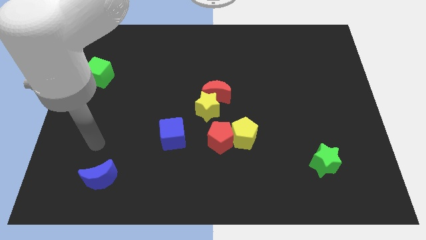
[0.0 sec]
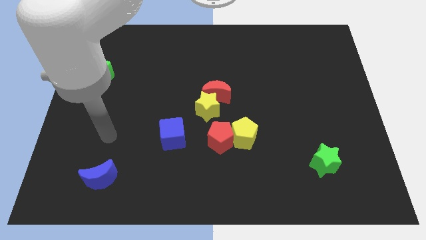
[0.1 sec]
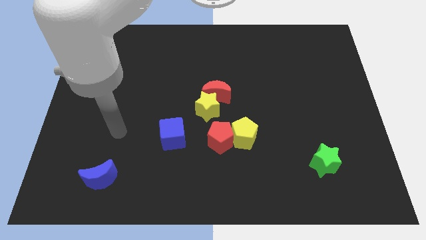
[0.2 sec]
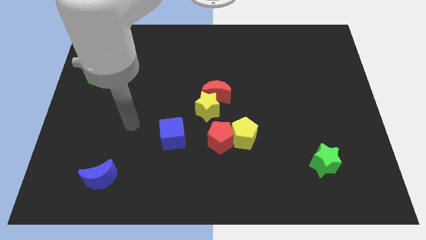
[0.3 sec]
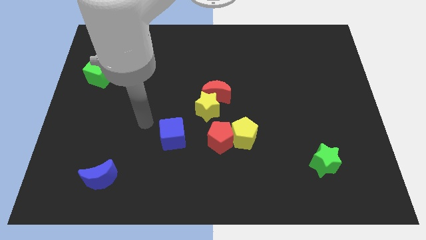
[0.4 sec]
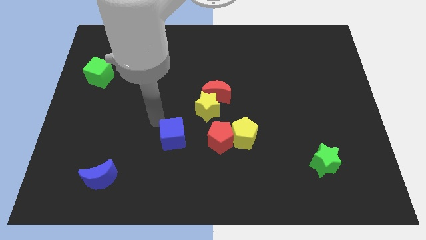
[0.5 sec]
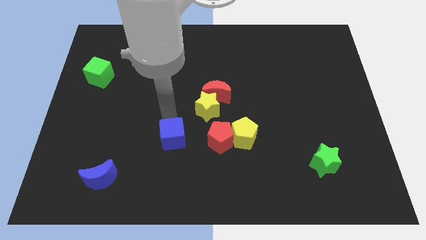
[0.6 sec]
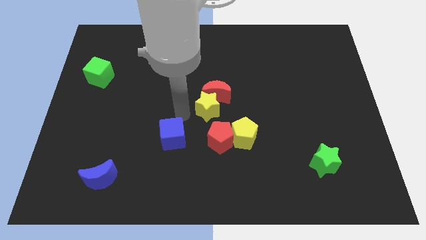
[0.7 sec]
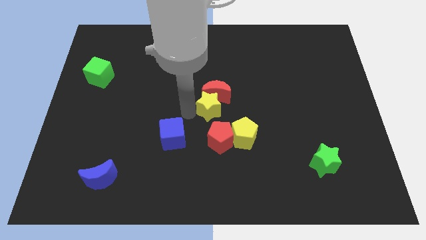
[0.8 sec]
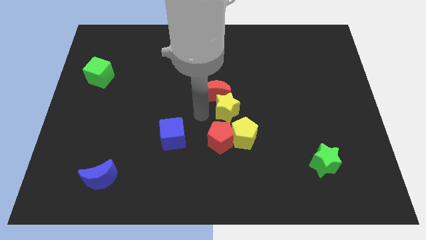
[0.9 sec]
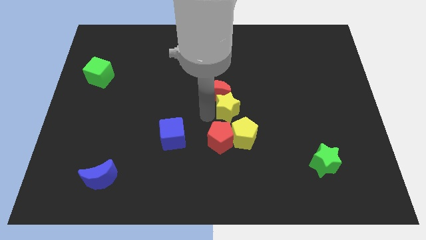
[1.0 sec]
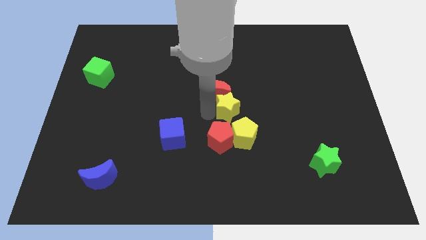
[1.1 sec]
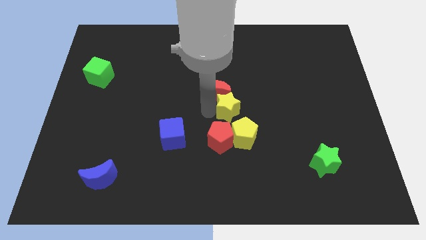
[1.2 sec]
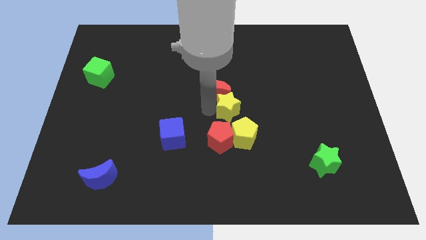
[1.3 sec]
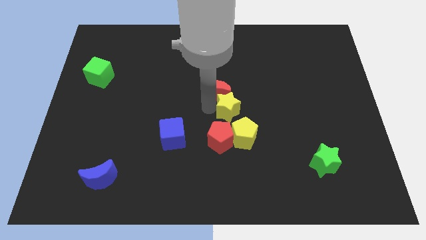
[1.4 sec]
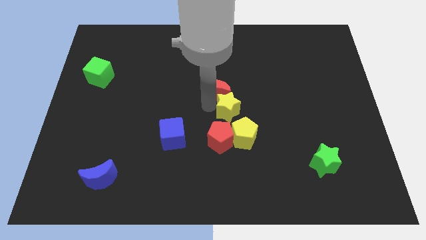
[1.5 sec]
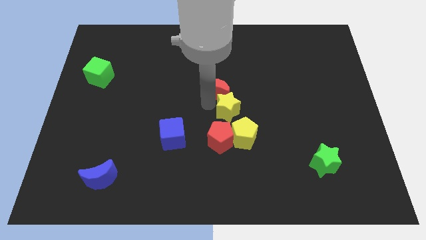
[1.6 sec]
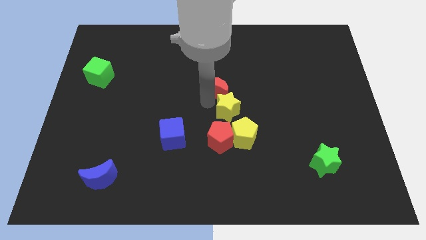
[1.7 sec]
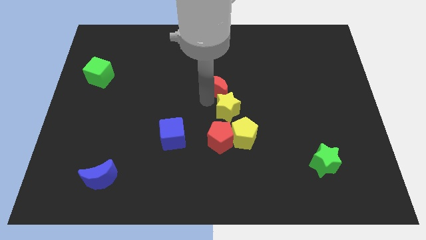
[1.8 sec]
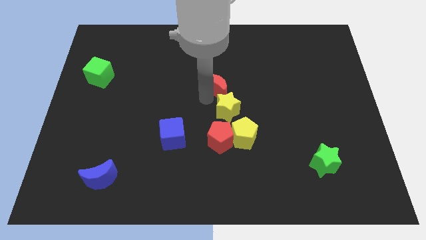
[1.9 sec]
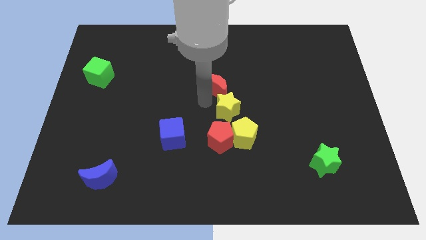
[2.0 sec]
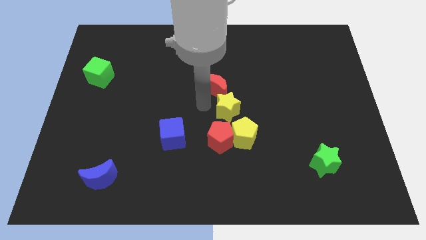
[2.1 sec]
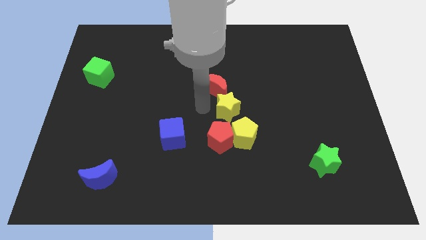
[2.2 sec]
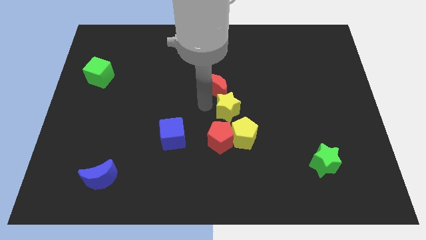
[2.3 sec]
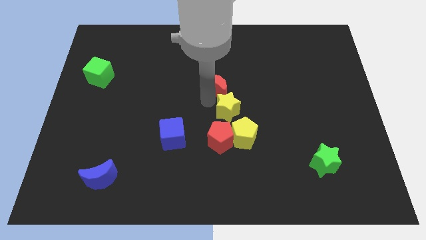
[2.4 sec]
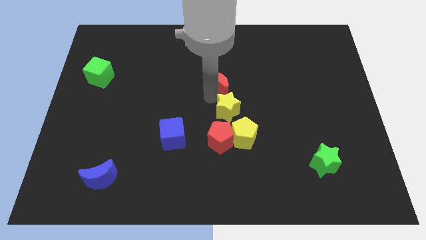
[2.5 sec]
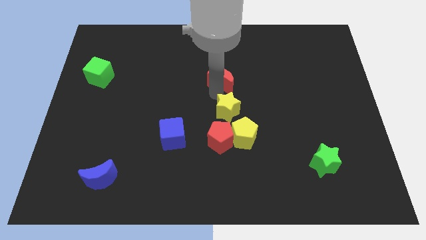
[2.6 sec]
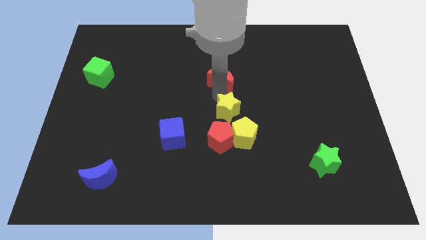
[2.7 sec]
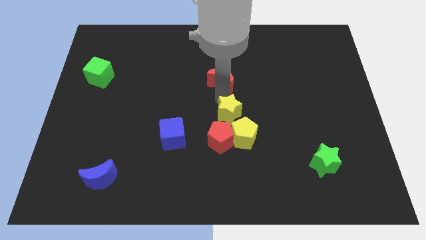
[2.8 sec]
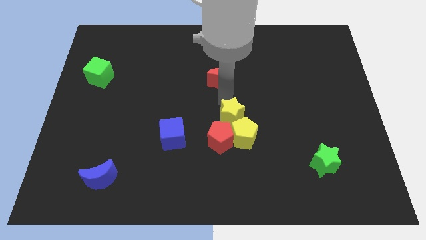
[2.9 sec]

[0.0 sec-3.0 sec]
move the red moon away from the yellow star

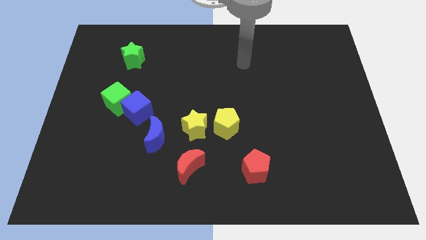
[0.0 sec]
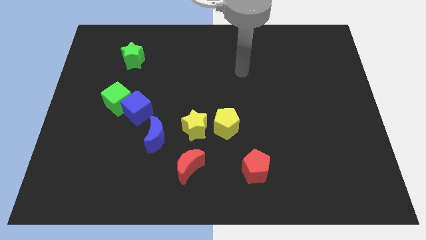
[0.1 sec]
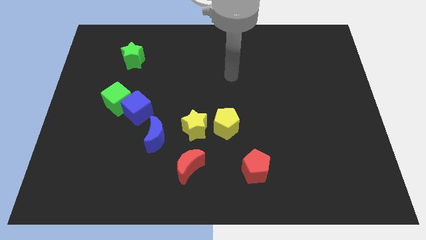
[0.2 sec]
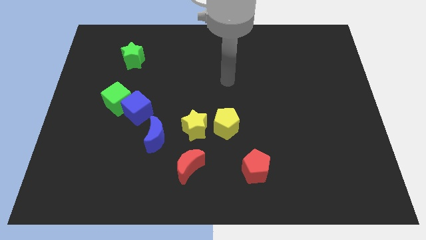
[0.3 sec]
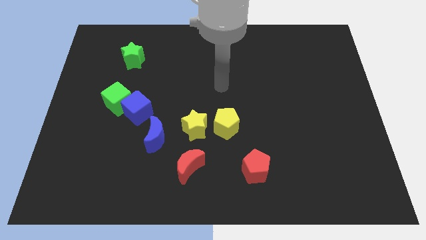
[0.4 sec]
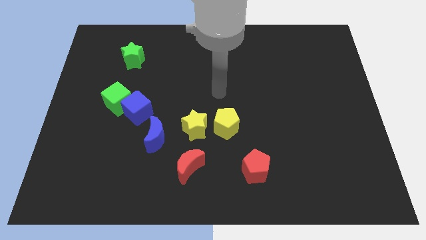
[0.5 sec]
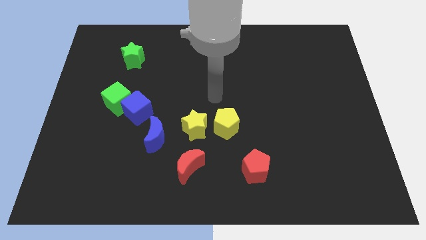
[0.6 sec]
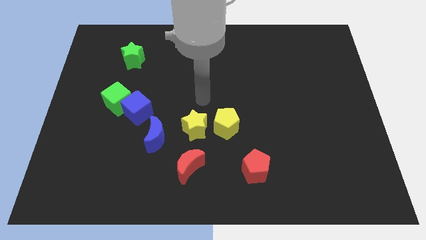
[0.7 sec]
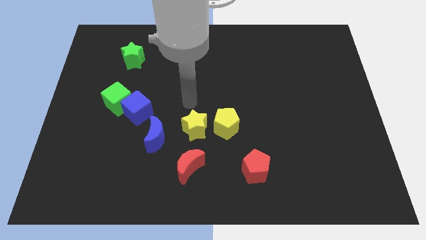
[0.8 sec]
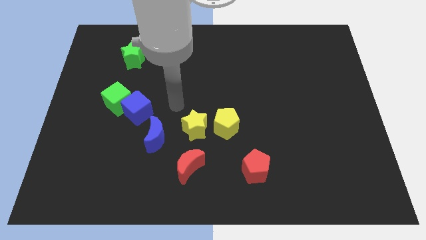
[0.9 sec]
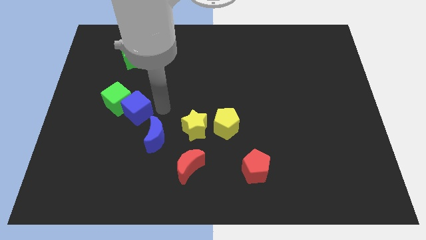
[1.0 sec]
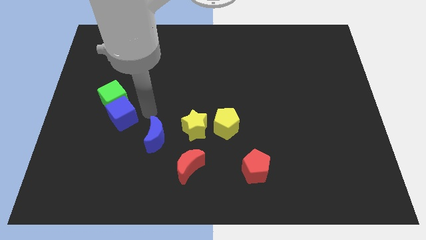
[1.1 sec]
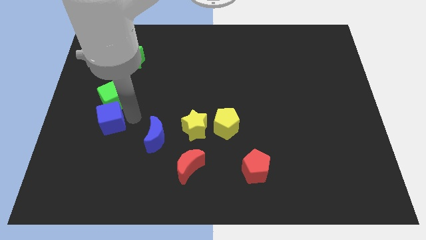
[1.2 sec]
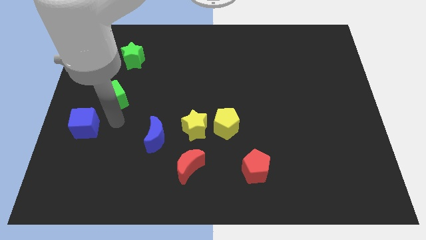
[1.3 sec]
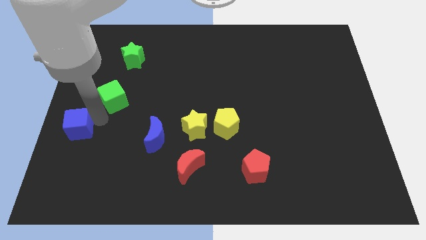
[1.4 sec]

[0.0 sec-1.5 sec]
separate the green cube from the blue cube

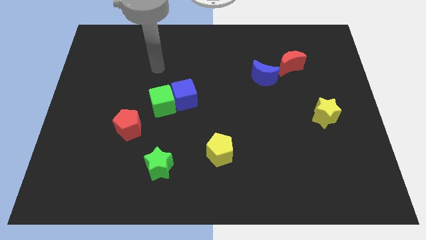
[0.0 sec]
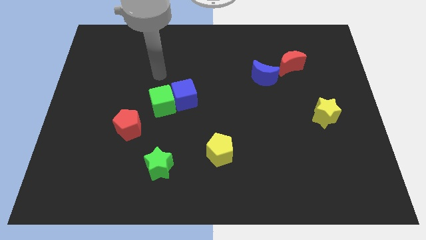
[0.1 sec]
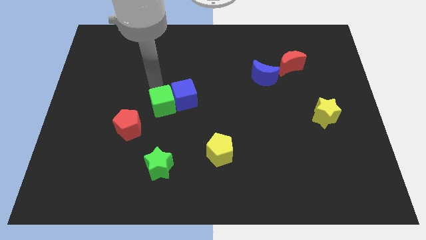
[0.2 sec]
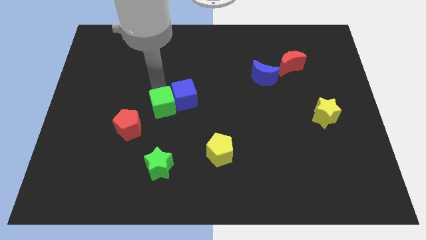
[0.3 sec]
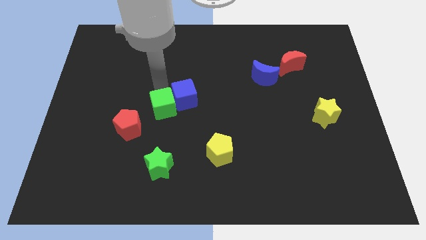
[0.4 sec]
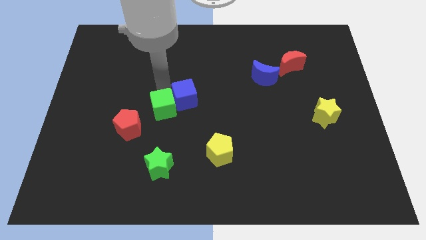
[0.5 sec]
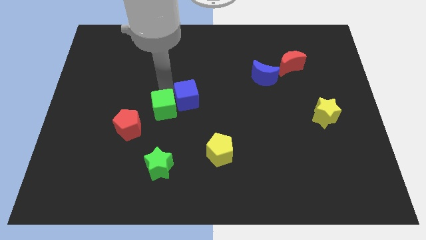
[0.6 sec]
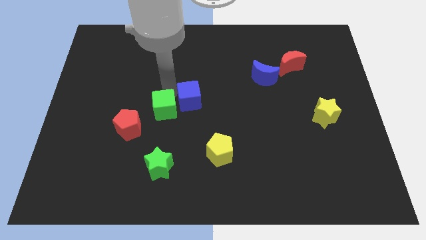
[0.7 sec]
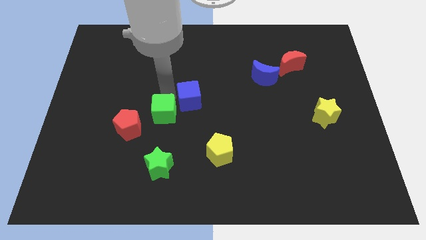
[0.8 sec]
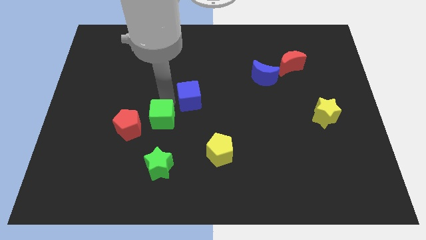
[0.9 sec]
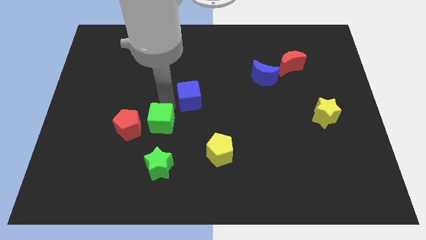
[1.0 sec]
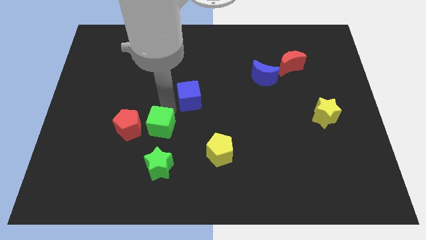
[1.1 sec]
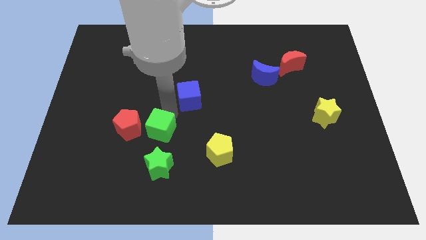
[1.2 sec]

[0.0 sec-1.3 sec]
move the blue cube away from the green cube

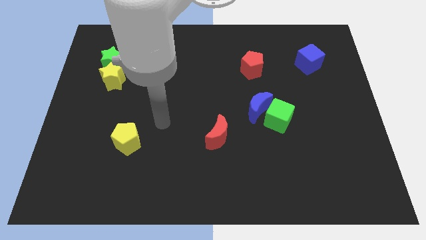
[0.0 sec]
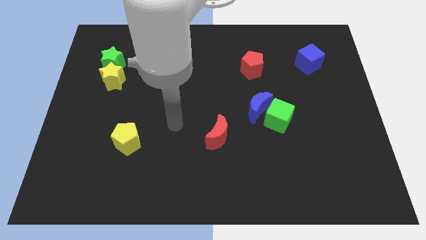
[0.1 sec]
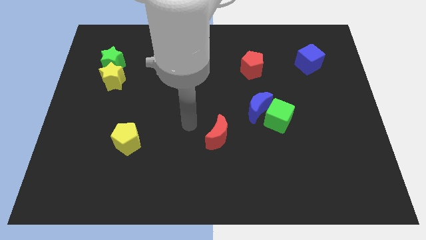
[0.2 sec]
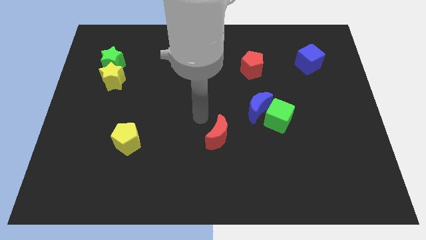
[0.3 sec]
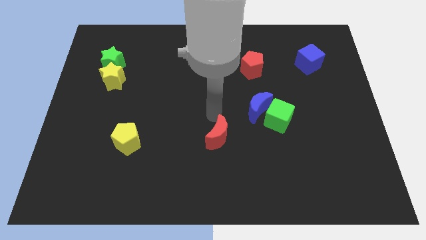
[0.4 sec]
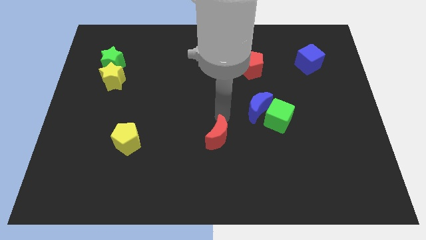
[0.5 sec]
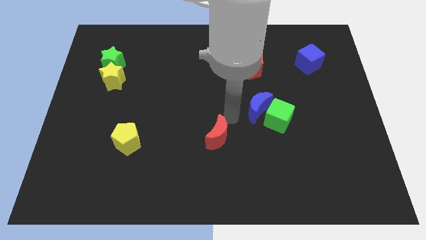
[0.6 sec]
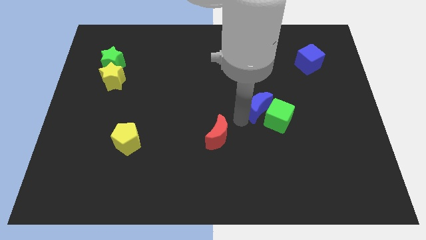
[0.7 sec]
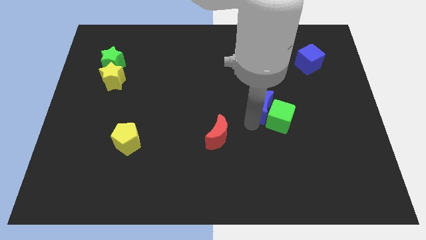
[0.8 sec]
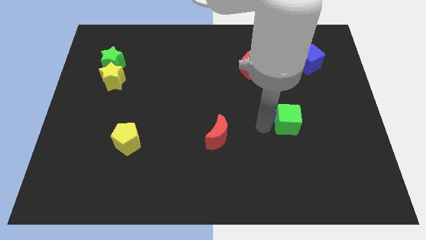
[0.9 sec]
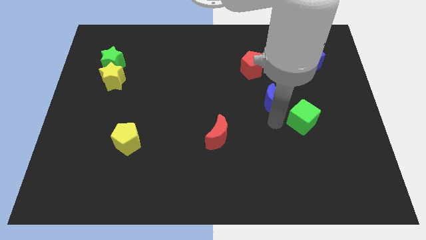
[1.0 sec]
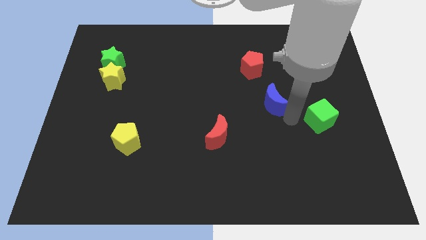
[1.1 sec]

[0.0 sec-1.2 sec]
separate the blue moon from the green cube

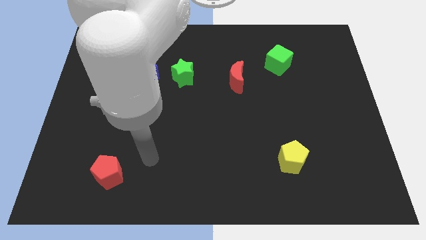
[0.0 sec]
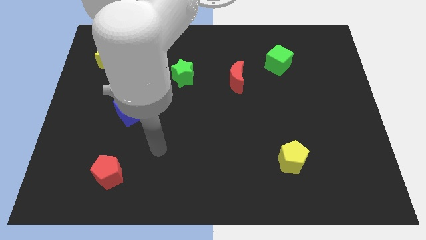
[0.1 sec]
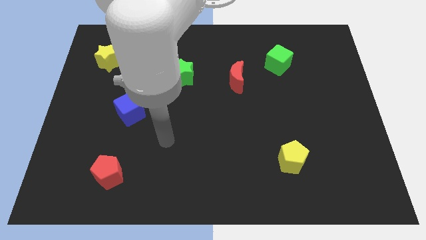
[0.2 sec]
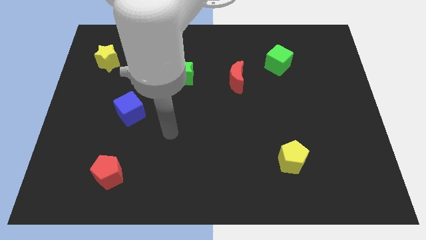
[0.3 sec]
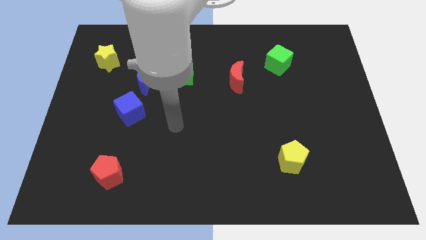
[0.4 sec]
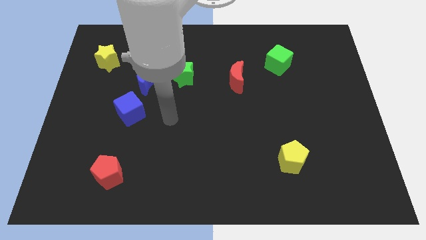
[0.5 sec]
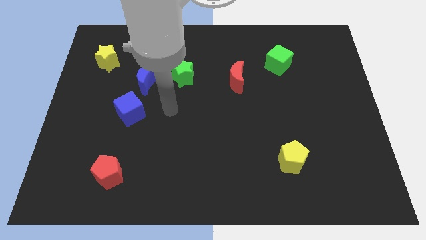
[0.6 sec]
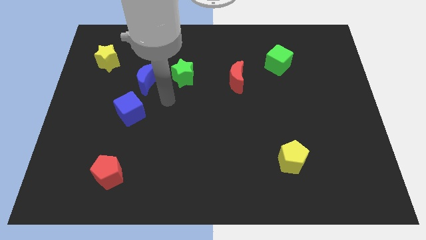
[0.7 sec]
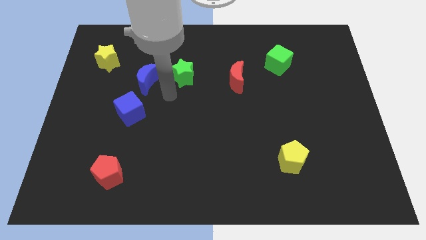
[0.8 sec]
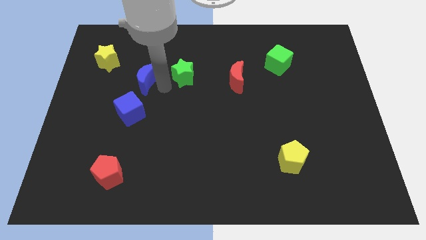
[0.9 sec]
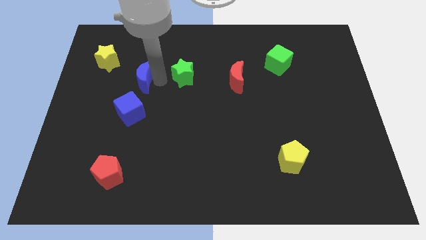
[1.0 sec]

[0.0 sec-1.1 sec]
pull the green star apart from the blue moon

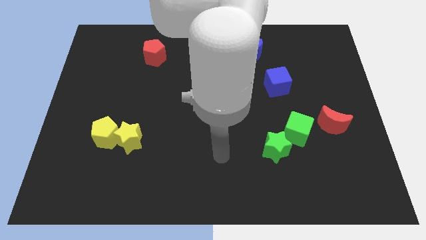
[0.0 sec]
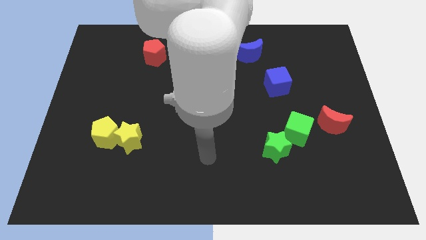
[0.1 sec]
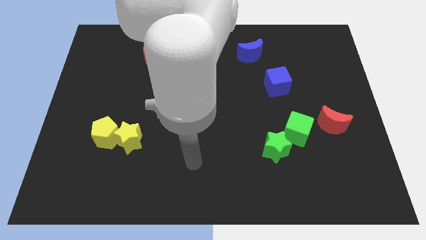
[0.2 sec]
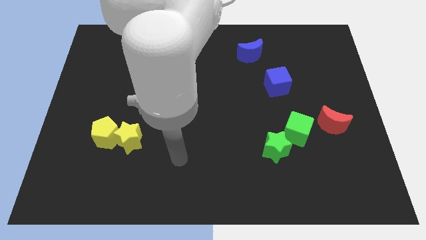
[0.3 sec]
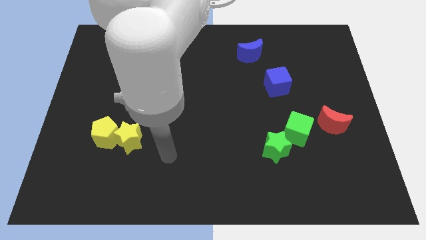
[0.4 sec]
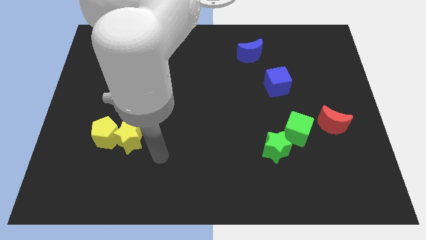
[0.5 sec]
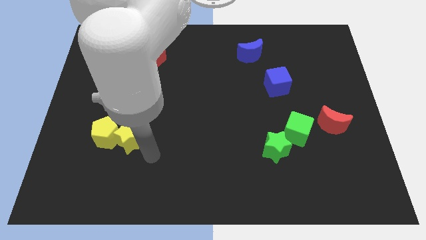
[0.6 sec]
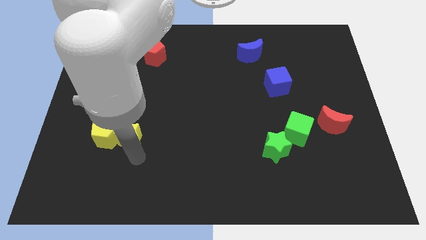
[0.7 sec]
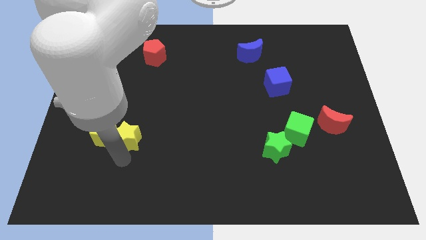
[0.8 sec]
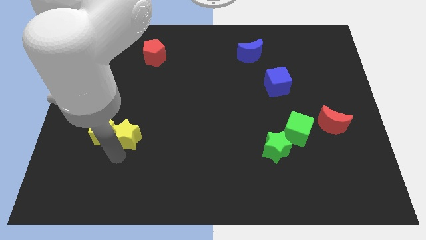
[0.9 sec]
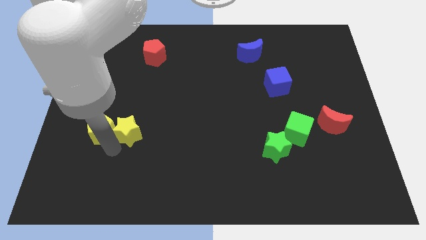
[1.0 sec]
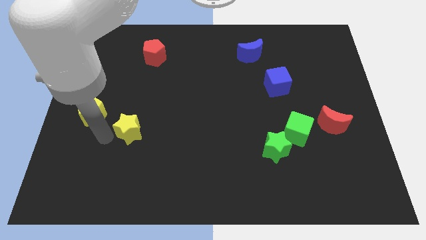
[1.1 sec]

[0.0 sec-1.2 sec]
move the yellow star away from the yellow pentagon
